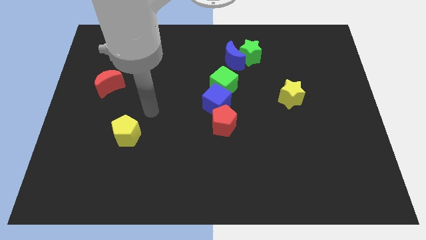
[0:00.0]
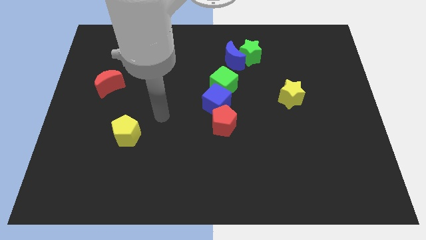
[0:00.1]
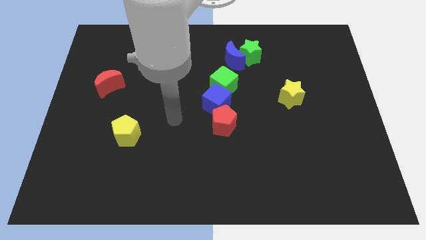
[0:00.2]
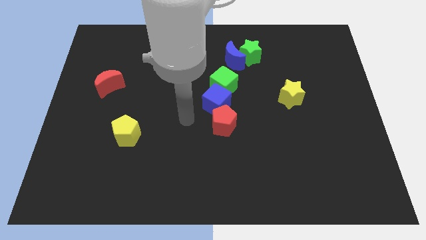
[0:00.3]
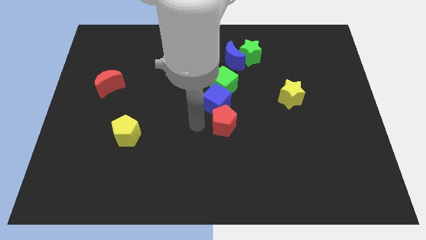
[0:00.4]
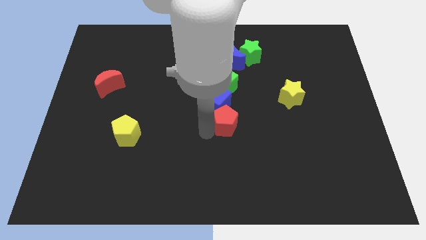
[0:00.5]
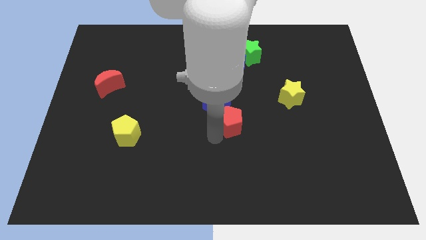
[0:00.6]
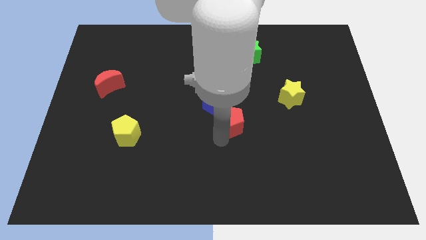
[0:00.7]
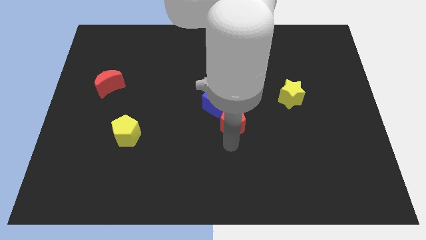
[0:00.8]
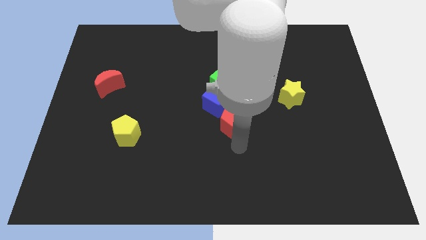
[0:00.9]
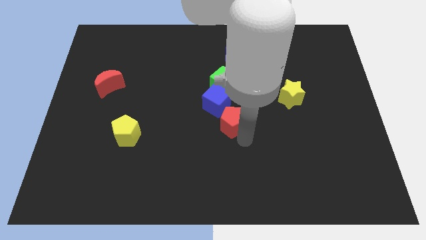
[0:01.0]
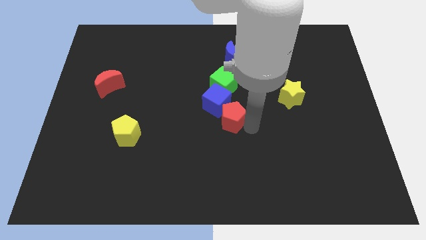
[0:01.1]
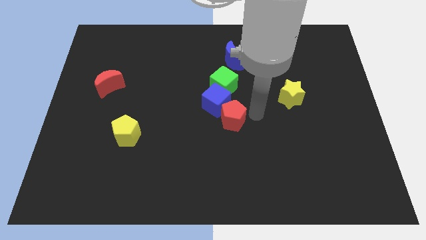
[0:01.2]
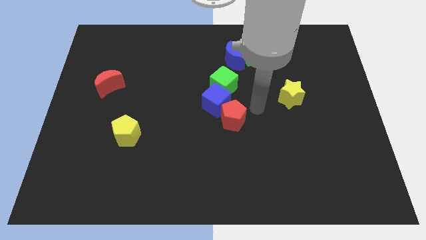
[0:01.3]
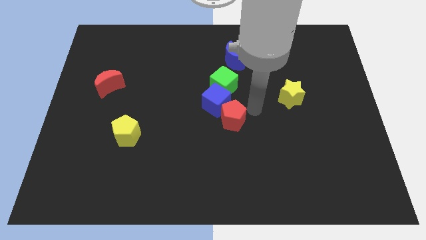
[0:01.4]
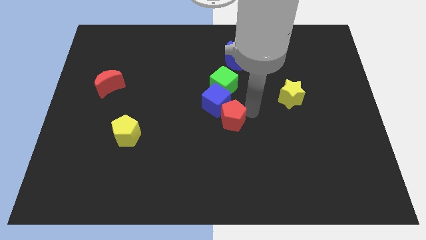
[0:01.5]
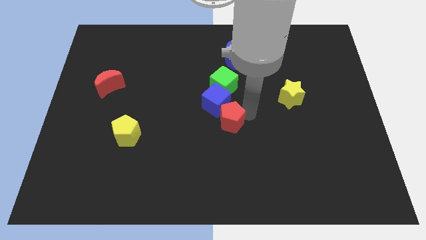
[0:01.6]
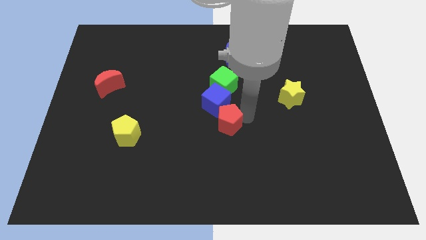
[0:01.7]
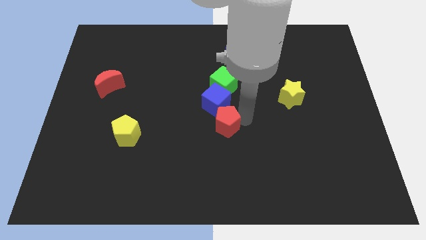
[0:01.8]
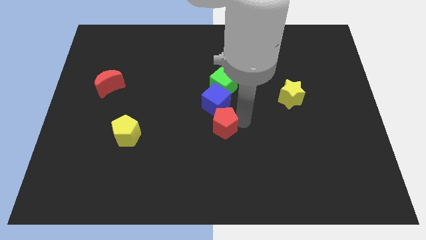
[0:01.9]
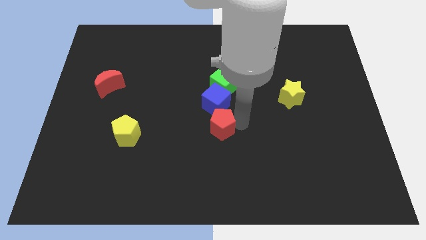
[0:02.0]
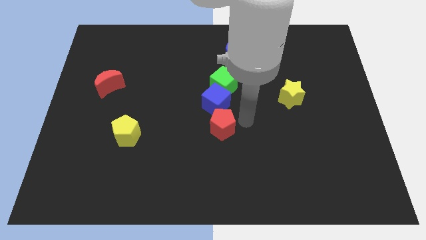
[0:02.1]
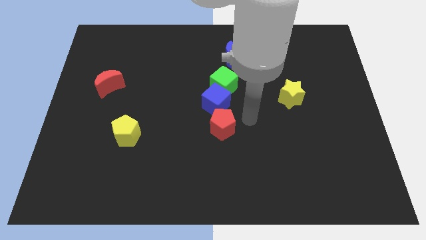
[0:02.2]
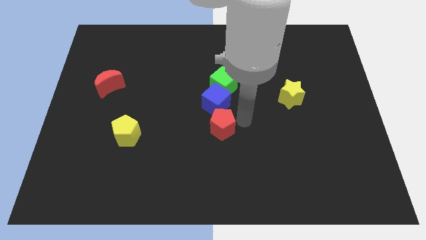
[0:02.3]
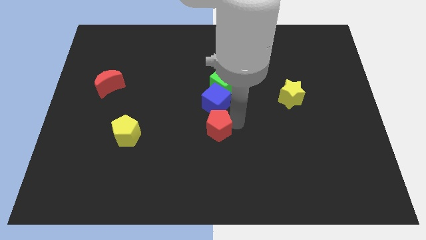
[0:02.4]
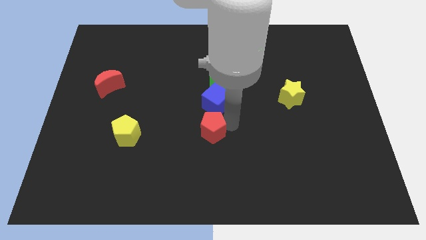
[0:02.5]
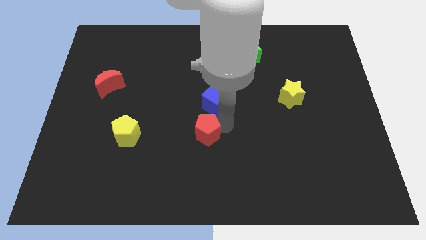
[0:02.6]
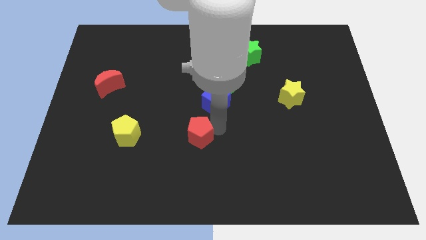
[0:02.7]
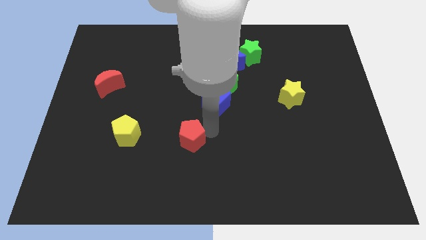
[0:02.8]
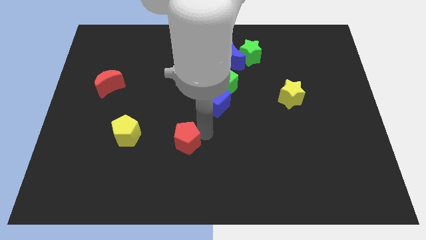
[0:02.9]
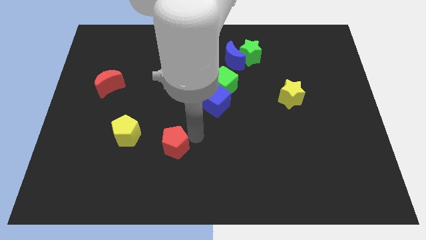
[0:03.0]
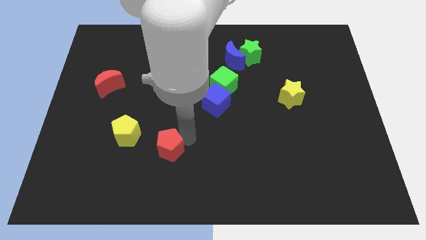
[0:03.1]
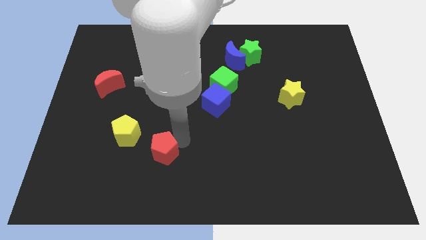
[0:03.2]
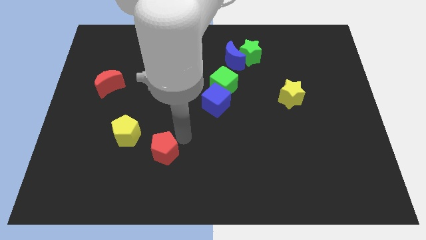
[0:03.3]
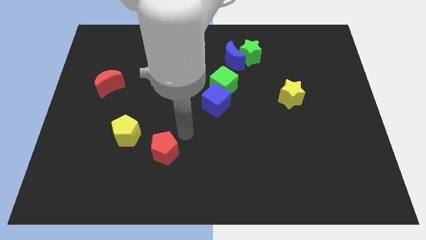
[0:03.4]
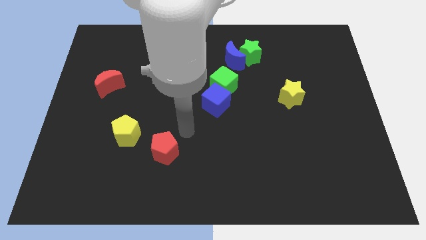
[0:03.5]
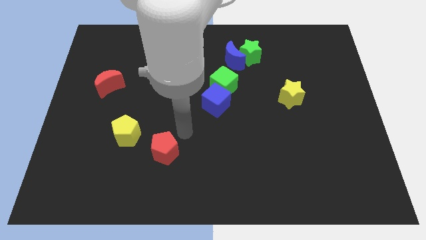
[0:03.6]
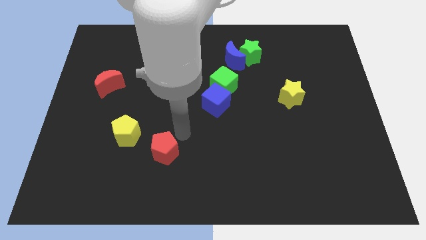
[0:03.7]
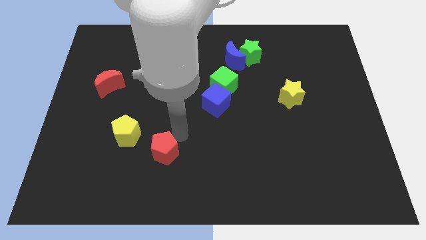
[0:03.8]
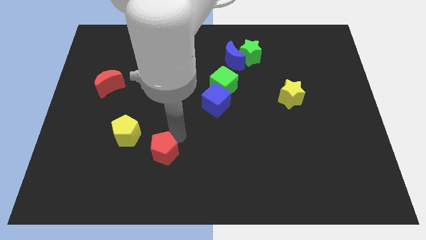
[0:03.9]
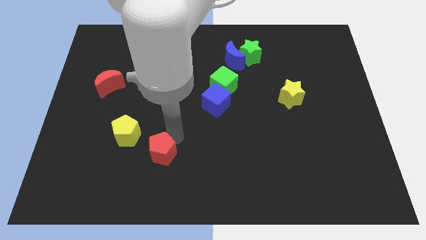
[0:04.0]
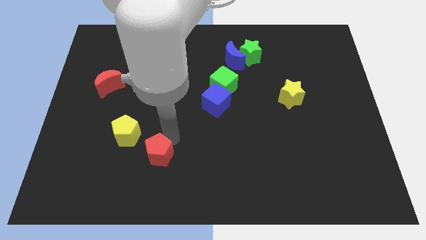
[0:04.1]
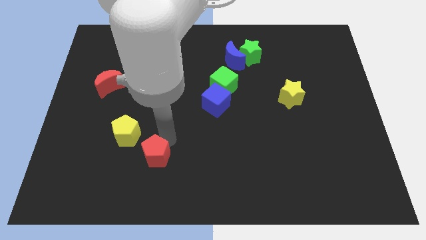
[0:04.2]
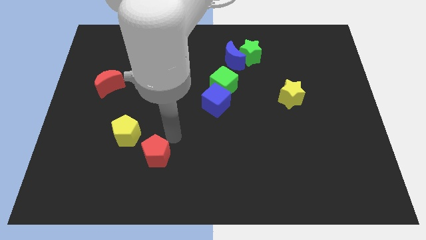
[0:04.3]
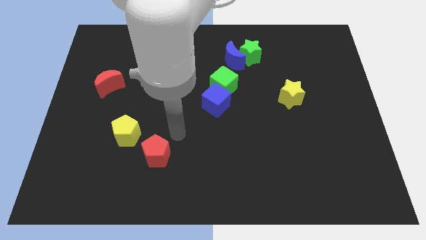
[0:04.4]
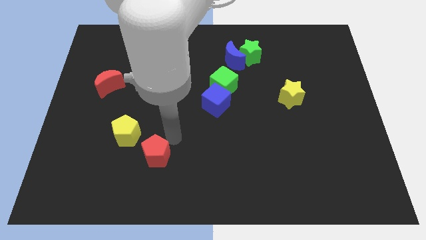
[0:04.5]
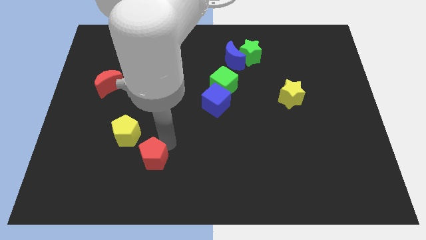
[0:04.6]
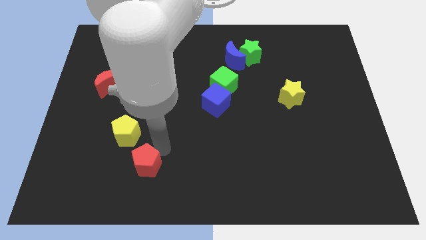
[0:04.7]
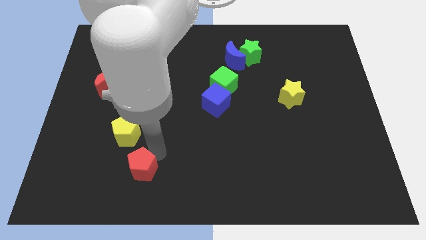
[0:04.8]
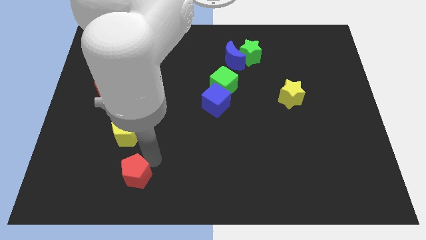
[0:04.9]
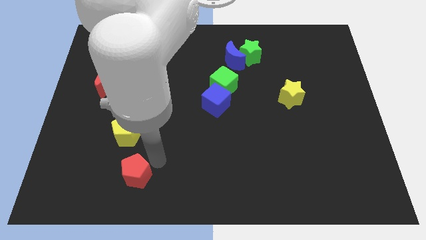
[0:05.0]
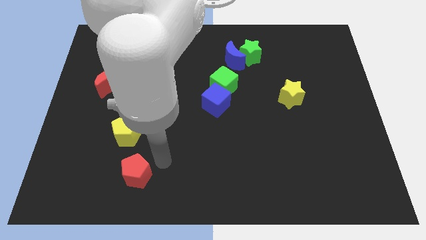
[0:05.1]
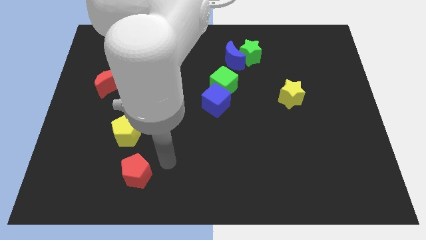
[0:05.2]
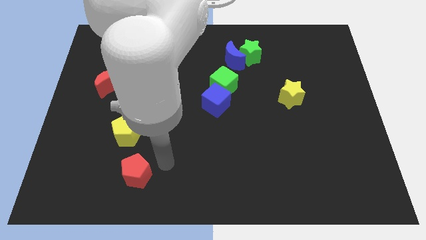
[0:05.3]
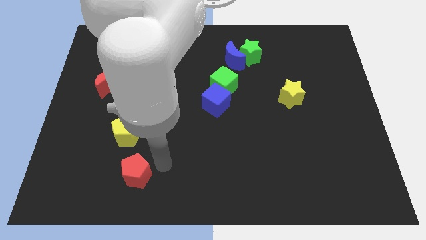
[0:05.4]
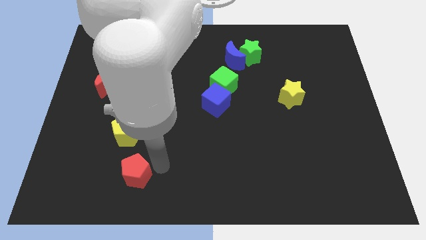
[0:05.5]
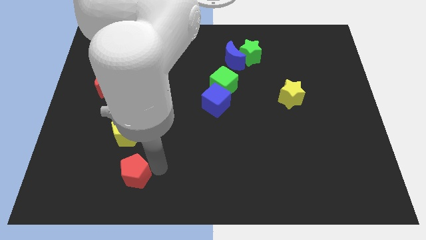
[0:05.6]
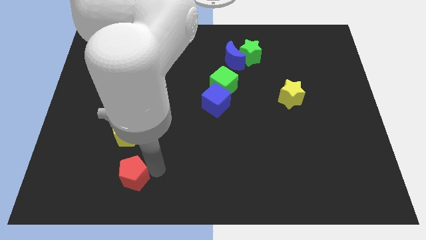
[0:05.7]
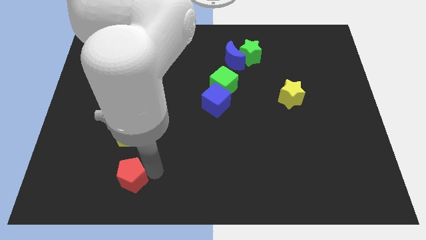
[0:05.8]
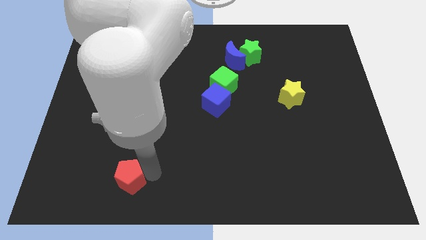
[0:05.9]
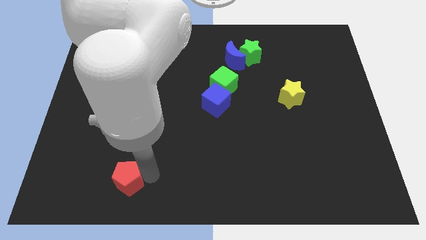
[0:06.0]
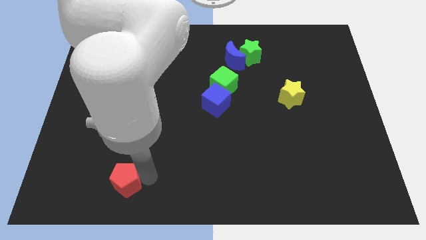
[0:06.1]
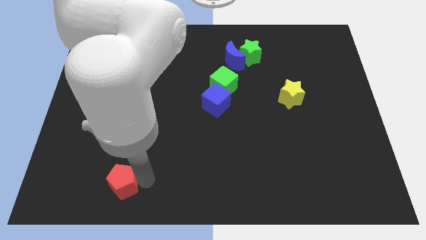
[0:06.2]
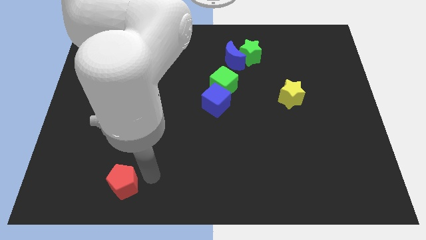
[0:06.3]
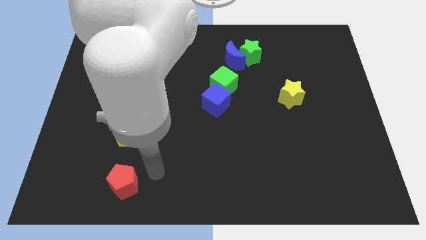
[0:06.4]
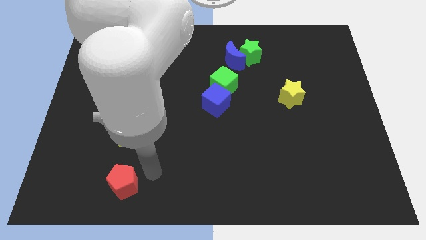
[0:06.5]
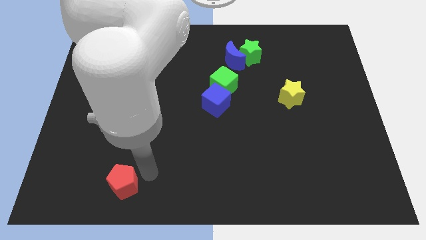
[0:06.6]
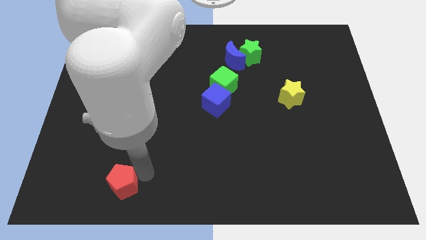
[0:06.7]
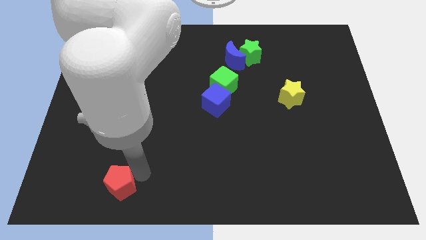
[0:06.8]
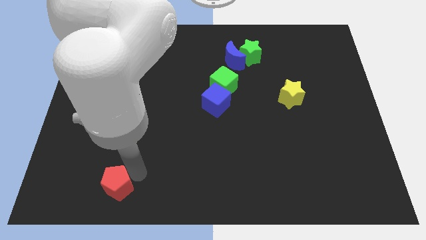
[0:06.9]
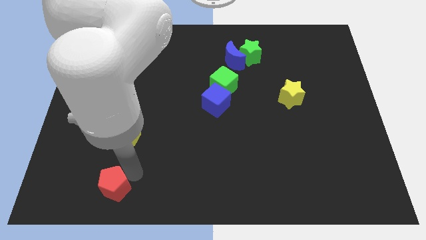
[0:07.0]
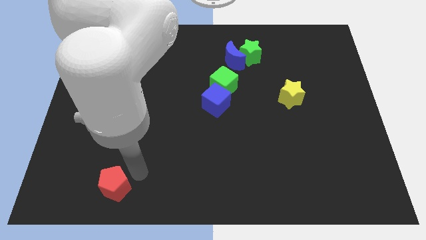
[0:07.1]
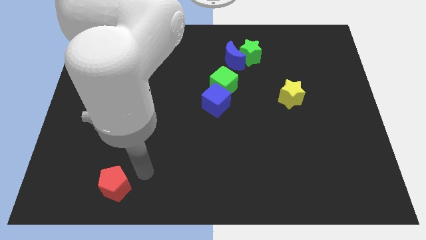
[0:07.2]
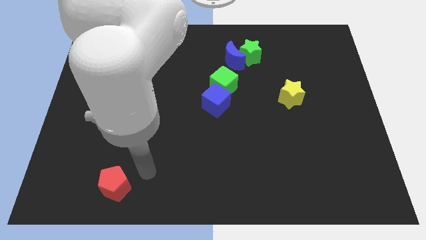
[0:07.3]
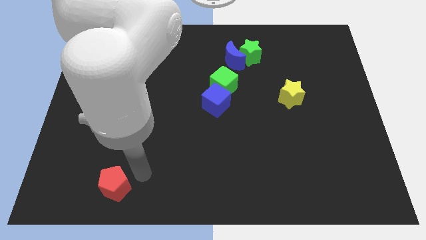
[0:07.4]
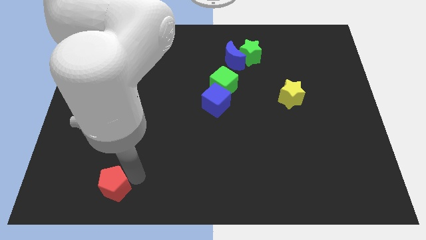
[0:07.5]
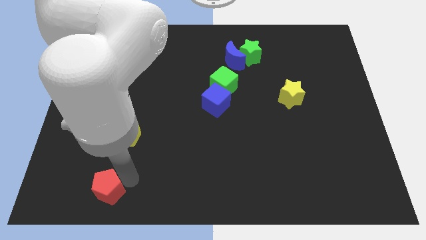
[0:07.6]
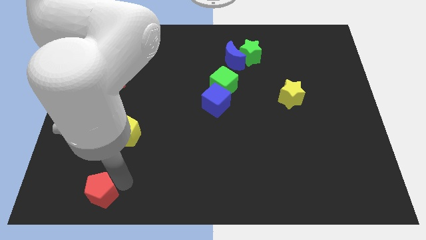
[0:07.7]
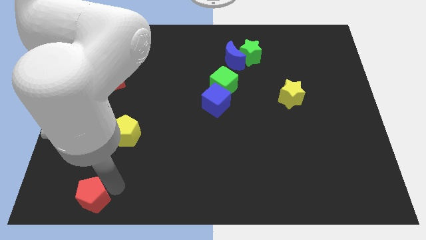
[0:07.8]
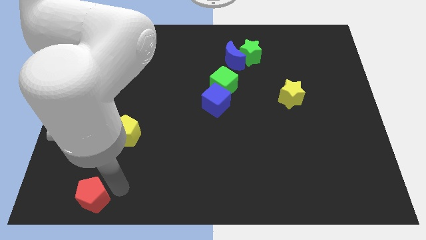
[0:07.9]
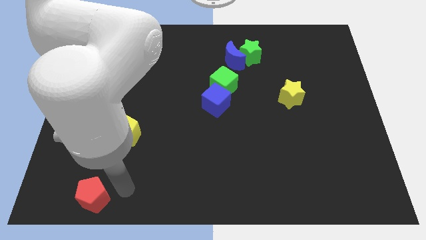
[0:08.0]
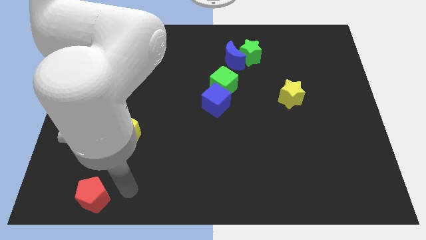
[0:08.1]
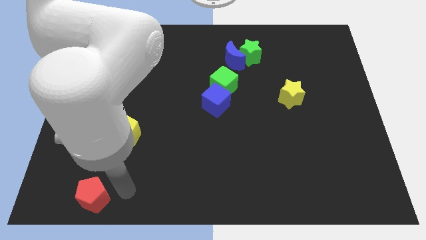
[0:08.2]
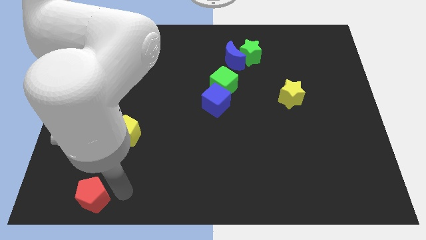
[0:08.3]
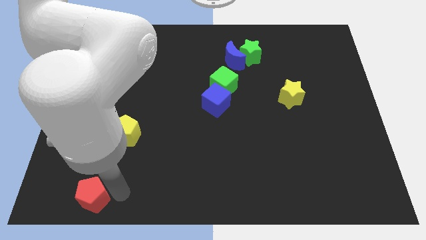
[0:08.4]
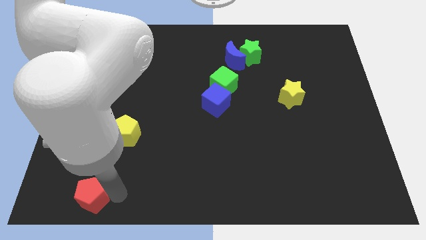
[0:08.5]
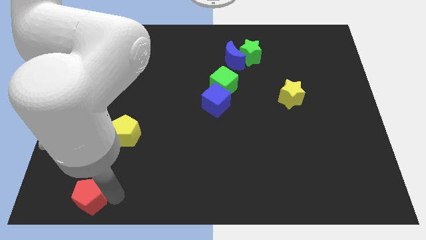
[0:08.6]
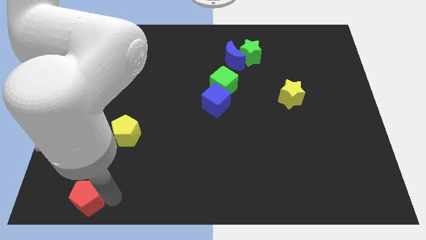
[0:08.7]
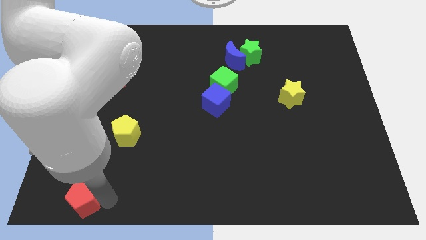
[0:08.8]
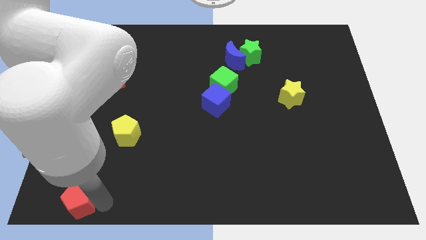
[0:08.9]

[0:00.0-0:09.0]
put the red pentagon to the lower left corner
